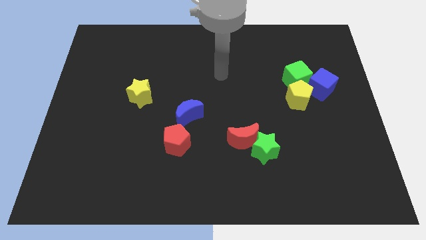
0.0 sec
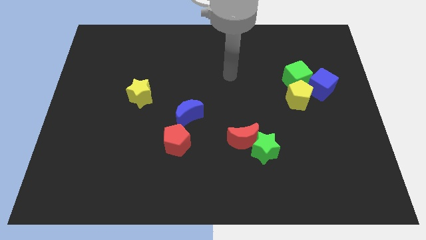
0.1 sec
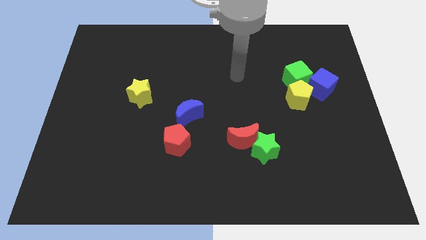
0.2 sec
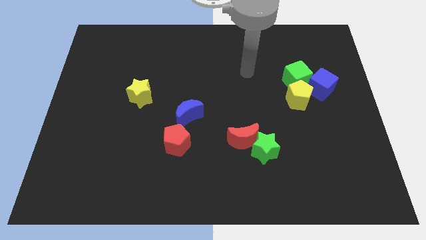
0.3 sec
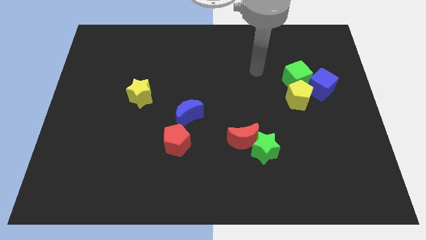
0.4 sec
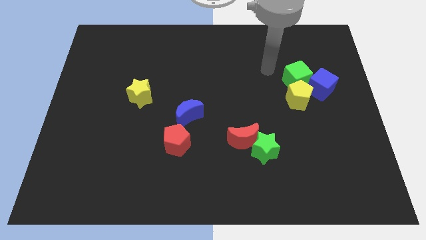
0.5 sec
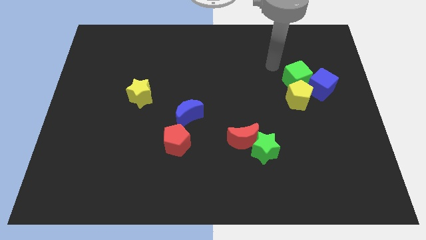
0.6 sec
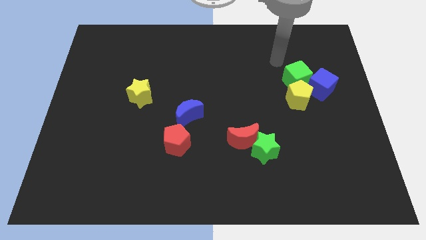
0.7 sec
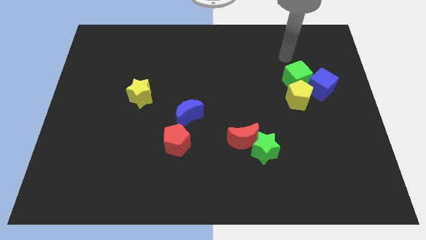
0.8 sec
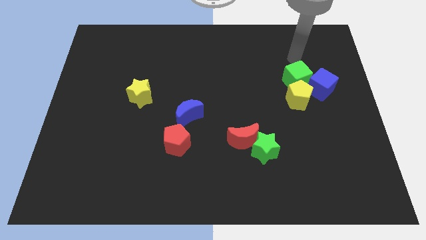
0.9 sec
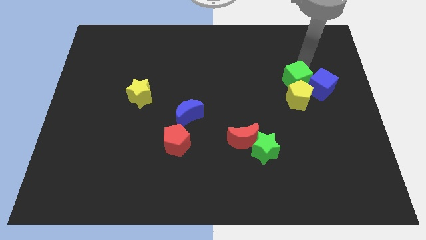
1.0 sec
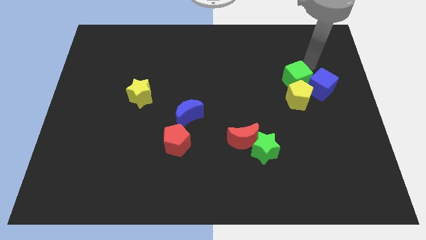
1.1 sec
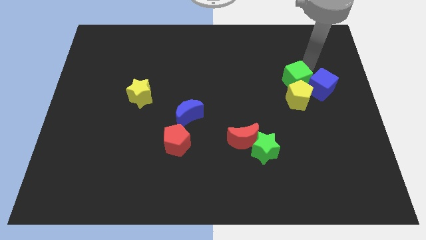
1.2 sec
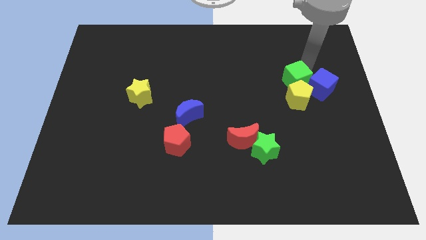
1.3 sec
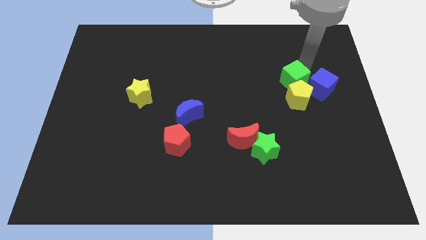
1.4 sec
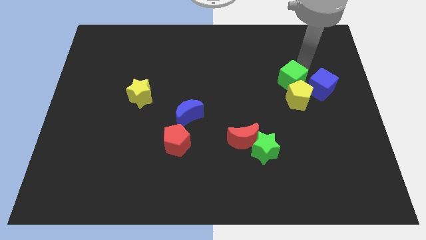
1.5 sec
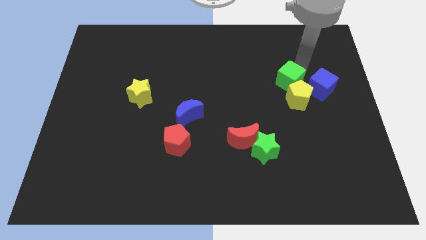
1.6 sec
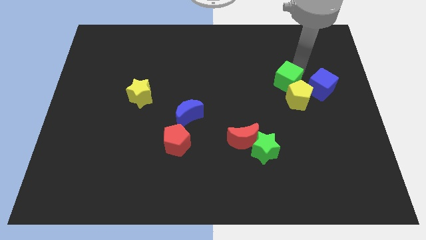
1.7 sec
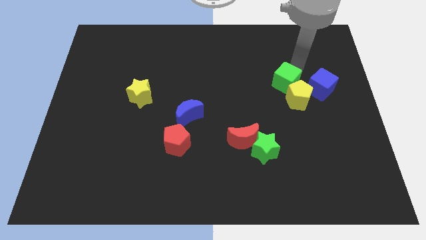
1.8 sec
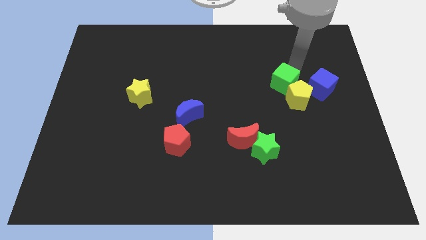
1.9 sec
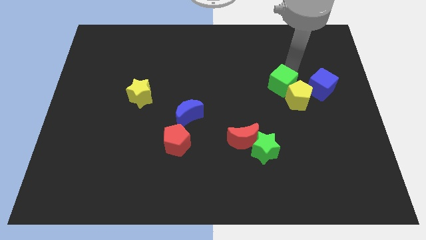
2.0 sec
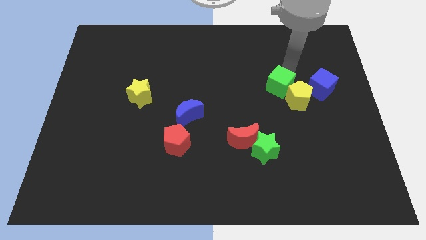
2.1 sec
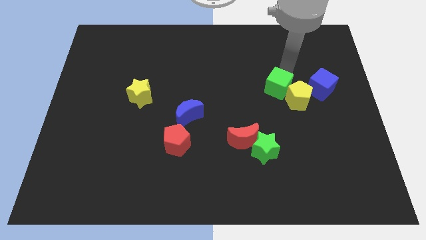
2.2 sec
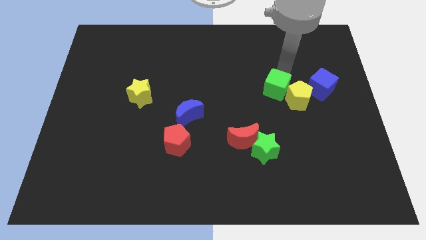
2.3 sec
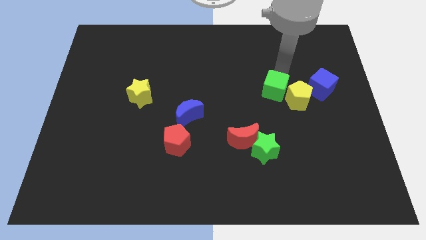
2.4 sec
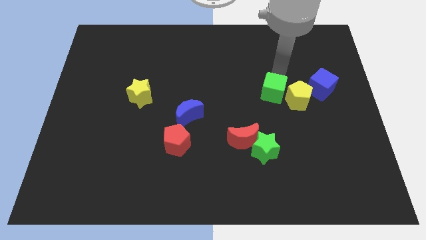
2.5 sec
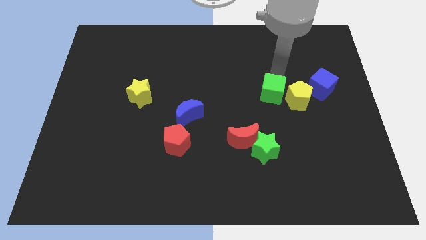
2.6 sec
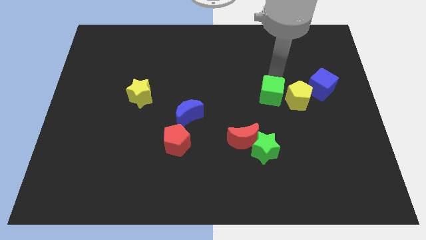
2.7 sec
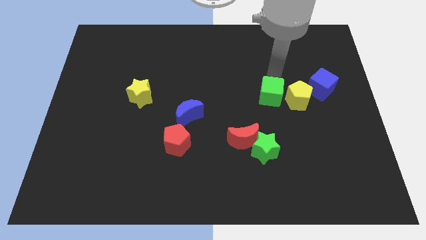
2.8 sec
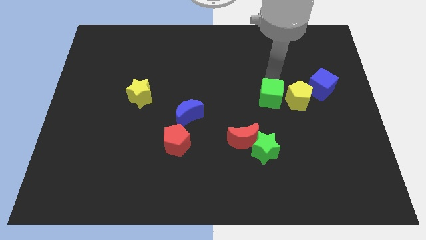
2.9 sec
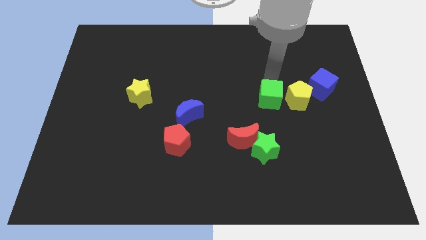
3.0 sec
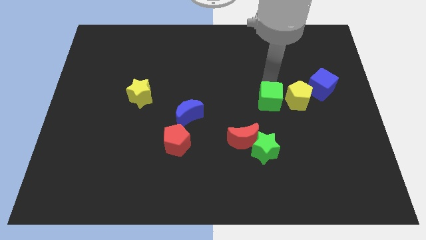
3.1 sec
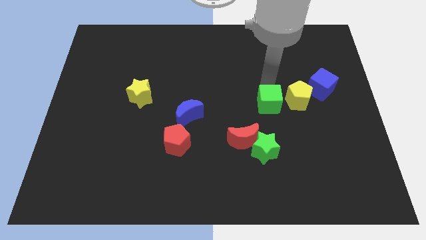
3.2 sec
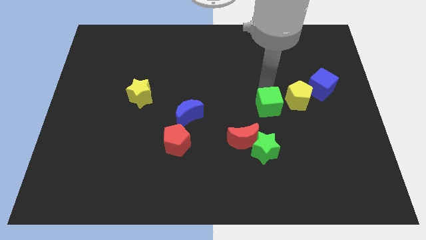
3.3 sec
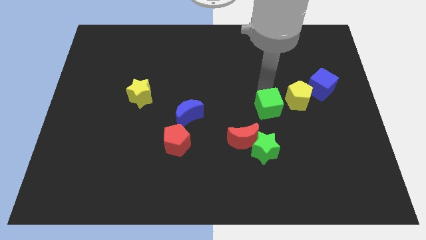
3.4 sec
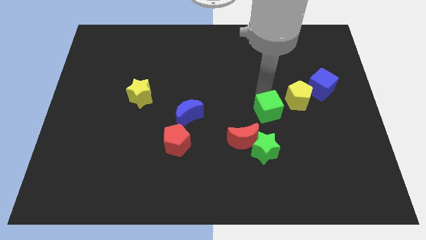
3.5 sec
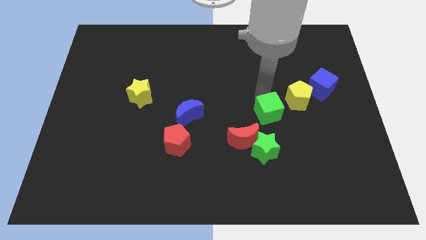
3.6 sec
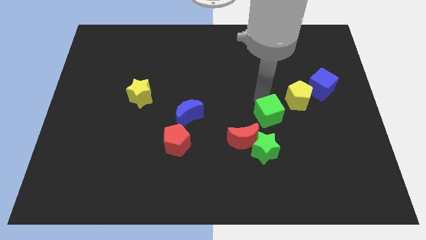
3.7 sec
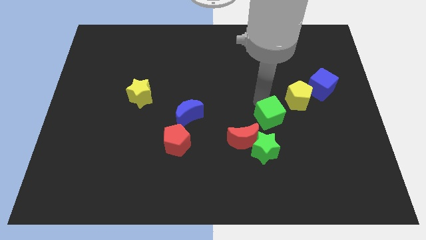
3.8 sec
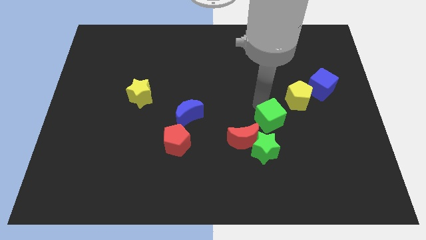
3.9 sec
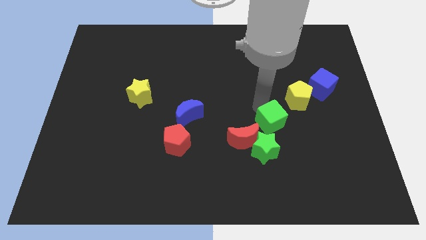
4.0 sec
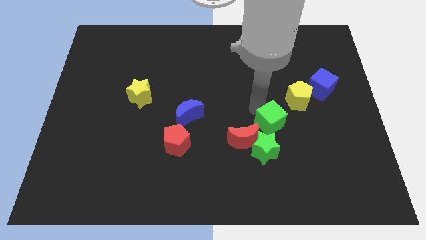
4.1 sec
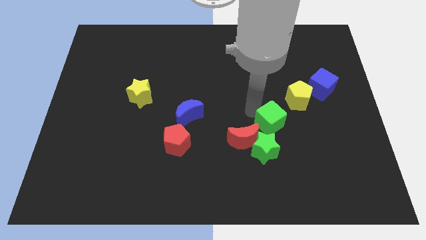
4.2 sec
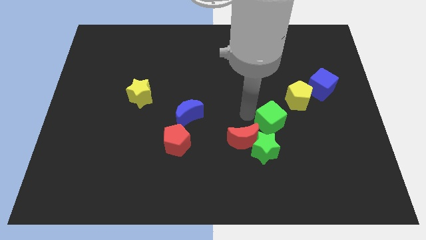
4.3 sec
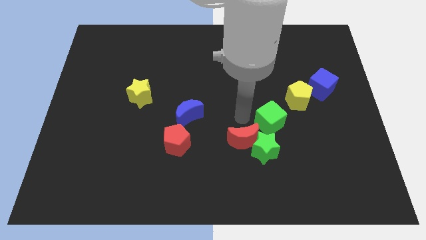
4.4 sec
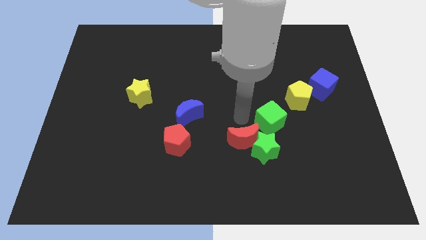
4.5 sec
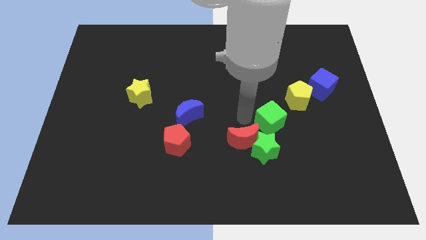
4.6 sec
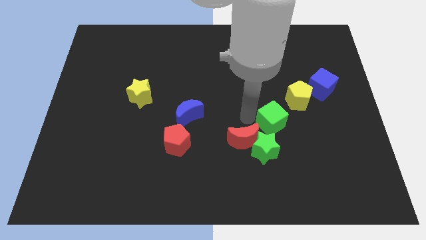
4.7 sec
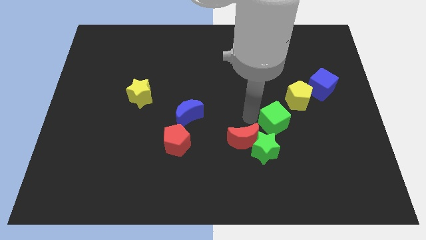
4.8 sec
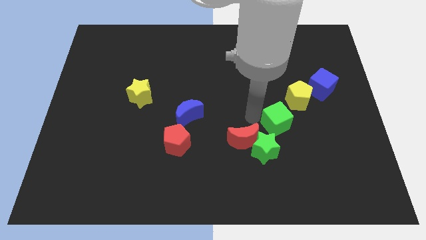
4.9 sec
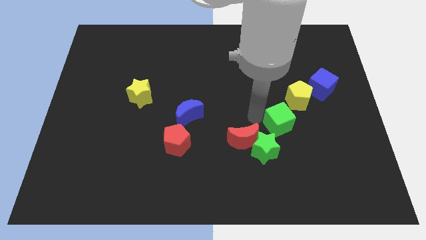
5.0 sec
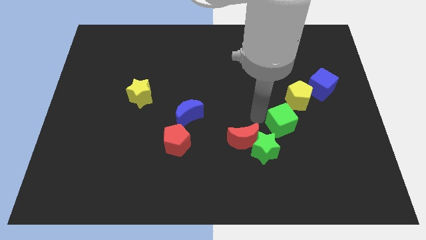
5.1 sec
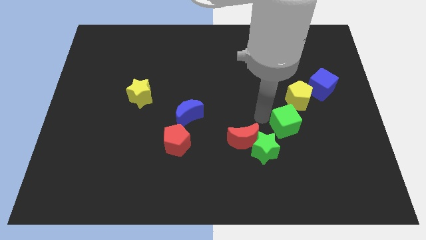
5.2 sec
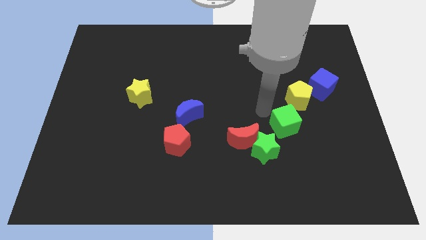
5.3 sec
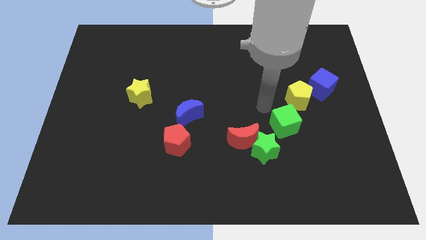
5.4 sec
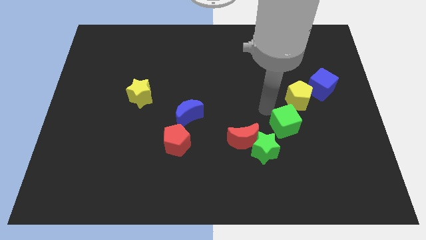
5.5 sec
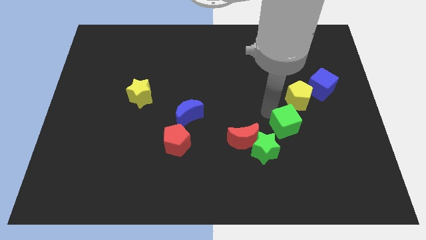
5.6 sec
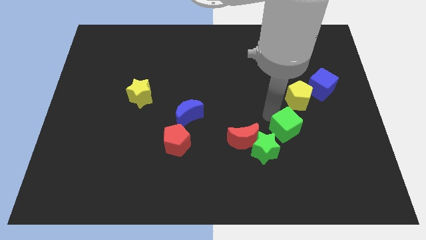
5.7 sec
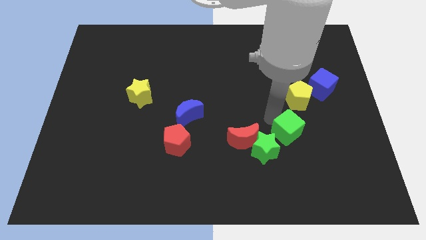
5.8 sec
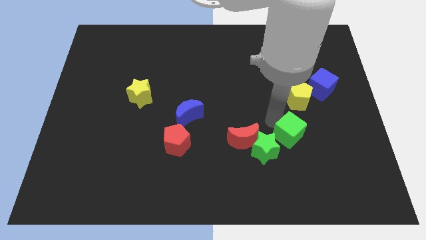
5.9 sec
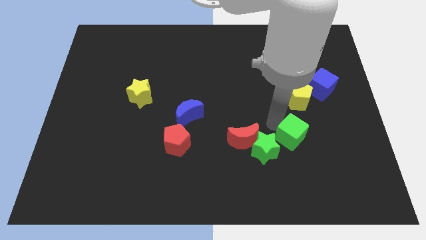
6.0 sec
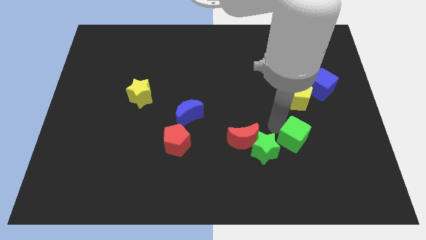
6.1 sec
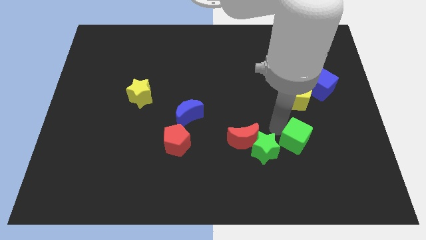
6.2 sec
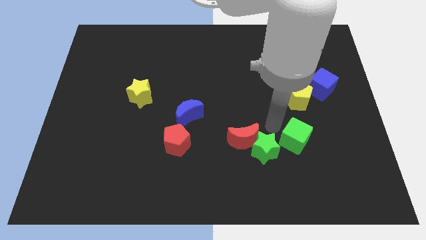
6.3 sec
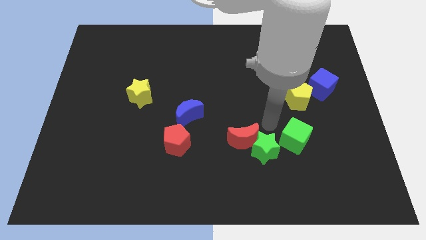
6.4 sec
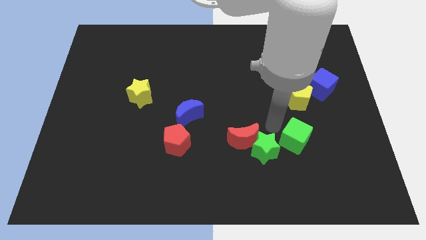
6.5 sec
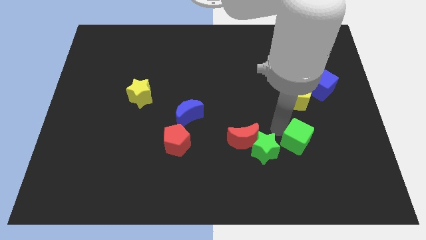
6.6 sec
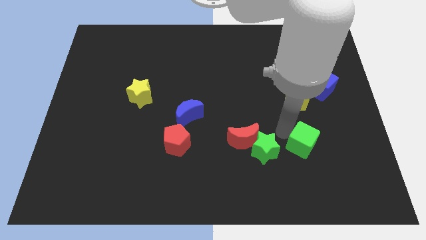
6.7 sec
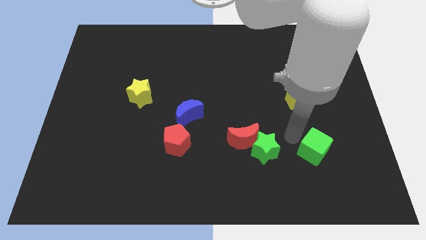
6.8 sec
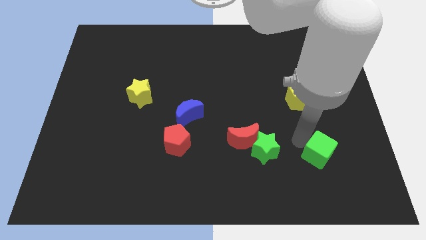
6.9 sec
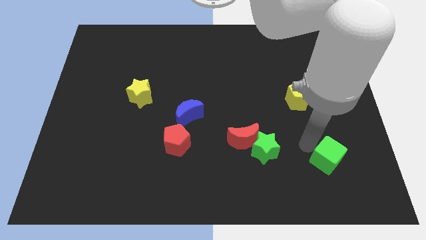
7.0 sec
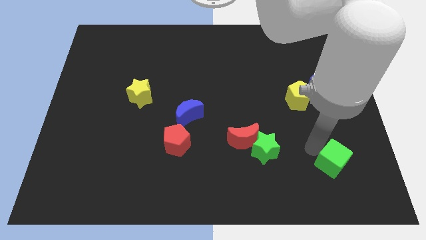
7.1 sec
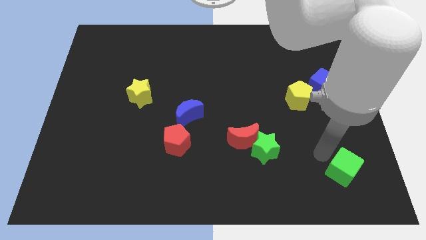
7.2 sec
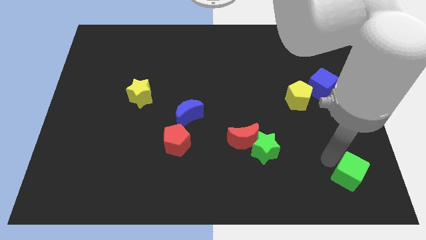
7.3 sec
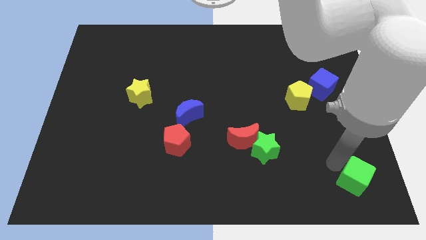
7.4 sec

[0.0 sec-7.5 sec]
slide the green cube to the bottom right of the board
